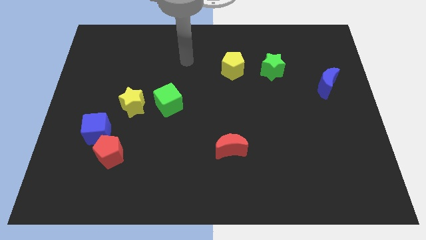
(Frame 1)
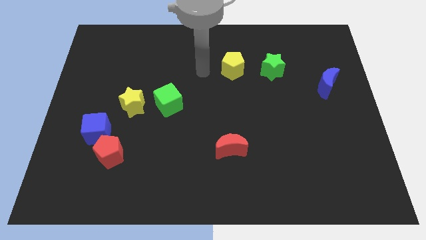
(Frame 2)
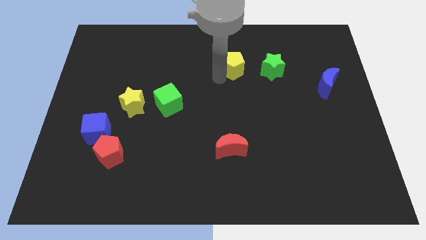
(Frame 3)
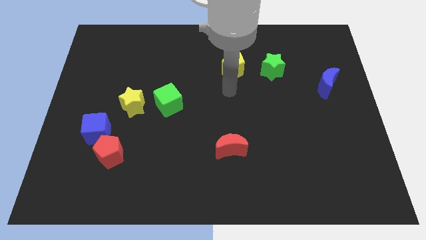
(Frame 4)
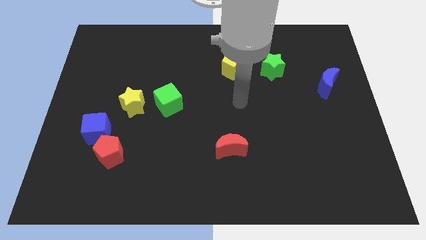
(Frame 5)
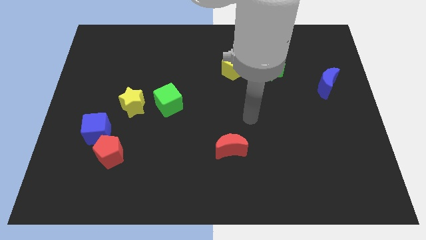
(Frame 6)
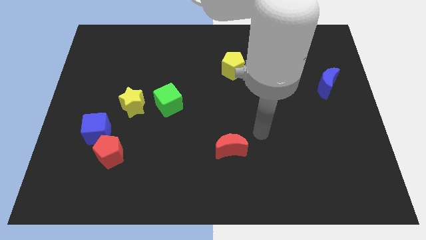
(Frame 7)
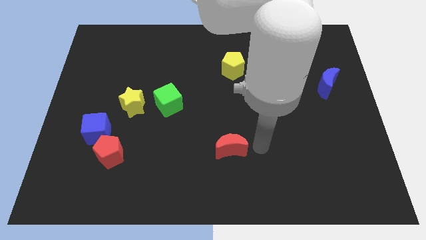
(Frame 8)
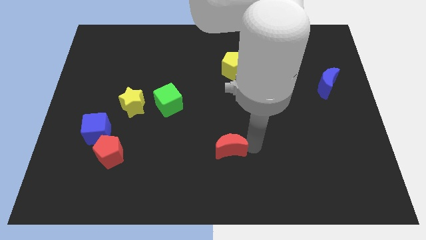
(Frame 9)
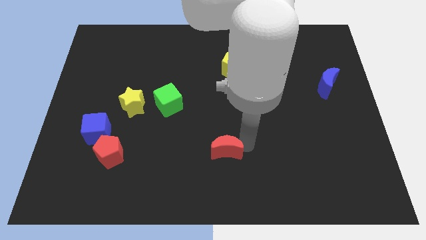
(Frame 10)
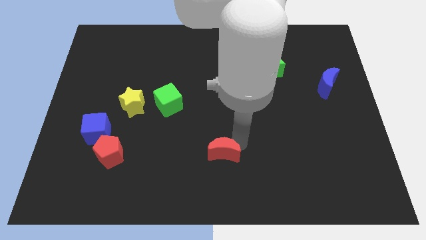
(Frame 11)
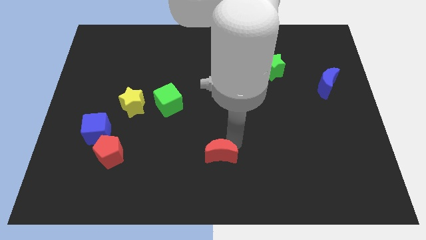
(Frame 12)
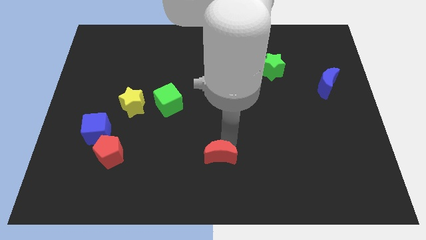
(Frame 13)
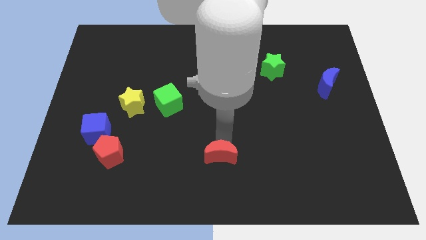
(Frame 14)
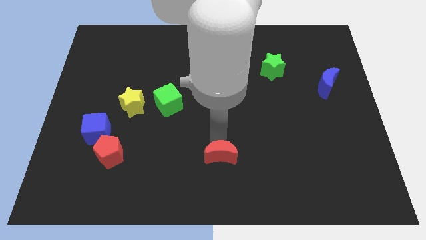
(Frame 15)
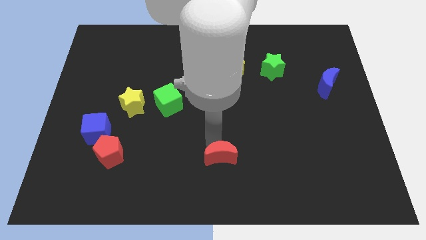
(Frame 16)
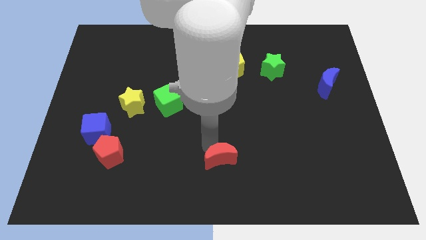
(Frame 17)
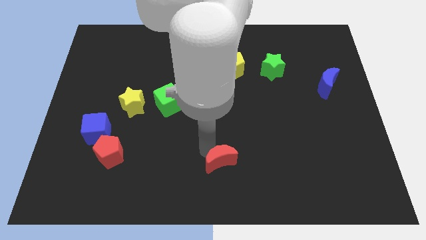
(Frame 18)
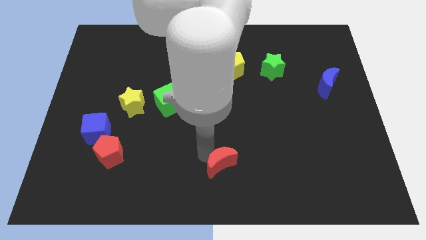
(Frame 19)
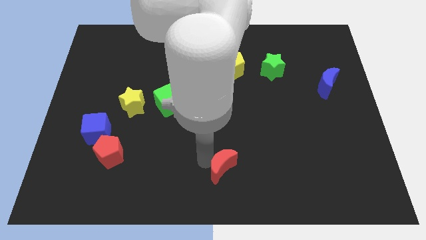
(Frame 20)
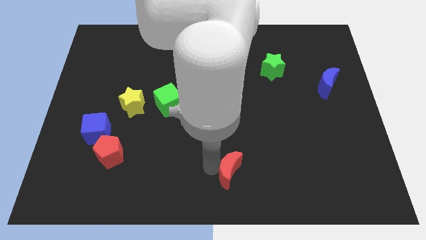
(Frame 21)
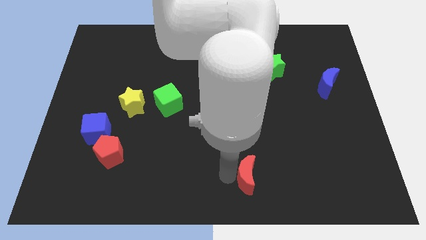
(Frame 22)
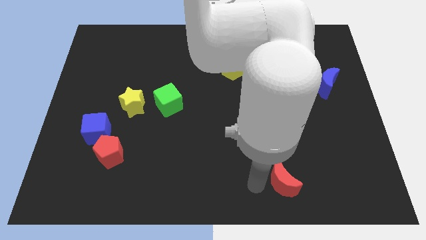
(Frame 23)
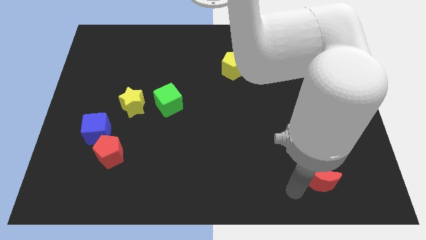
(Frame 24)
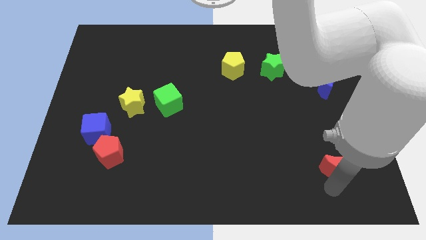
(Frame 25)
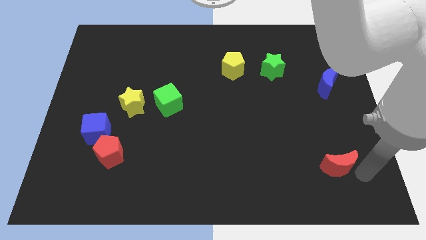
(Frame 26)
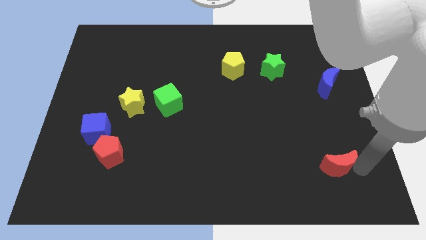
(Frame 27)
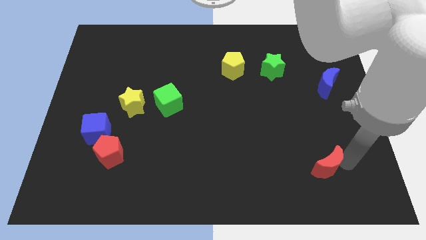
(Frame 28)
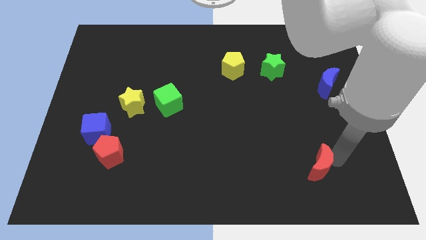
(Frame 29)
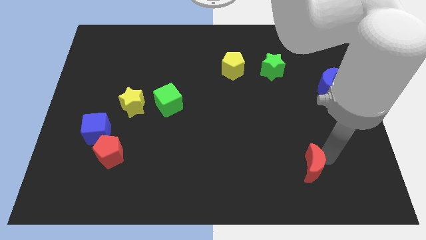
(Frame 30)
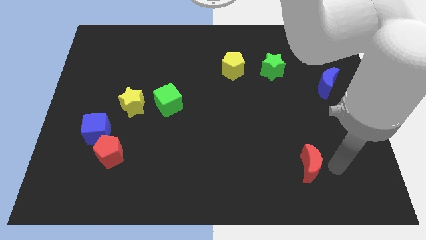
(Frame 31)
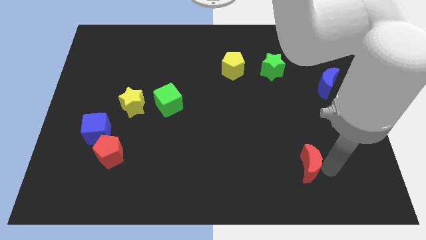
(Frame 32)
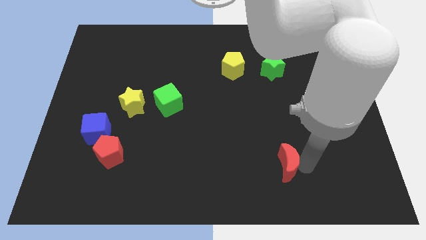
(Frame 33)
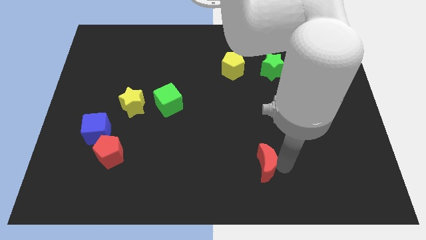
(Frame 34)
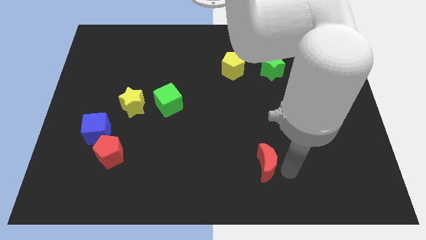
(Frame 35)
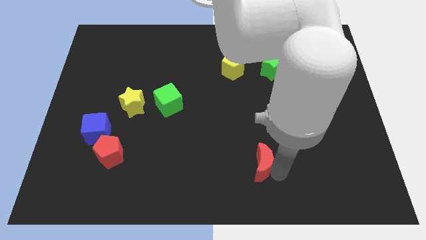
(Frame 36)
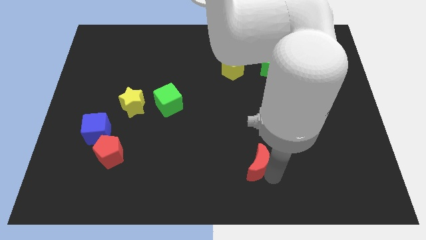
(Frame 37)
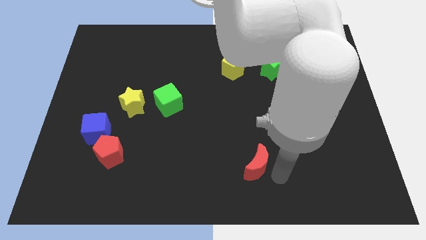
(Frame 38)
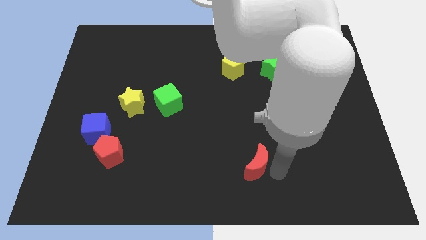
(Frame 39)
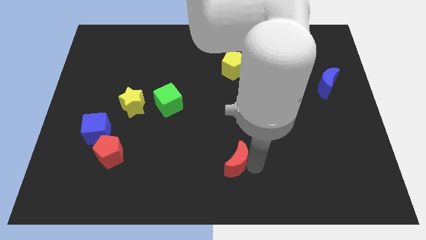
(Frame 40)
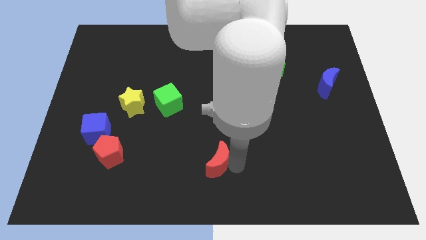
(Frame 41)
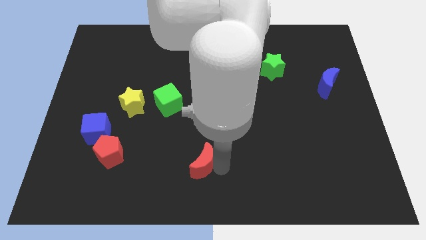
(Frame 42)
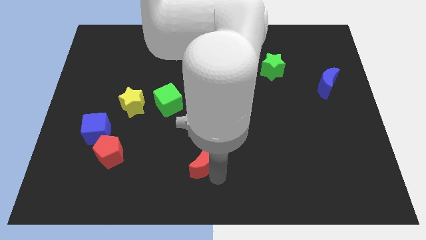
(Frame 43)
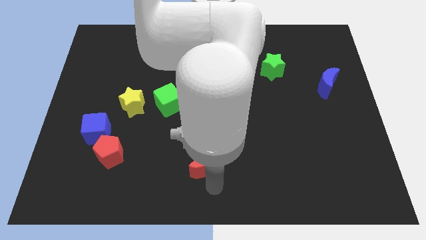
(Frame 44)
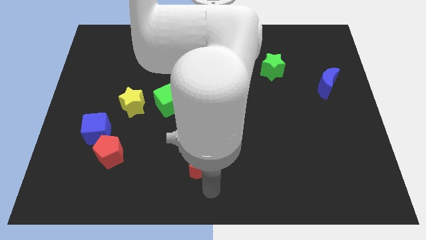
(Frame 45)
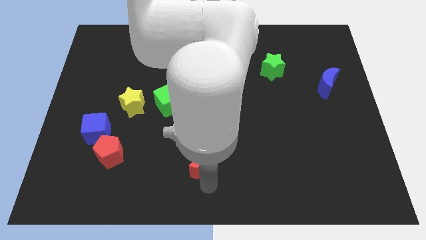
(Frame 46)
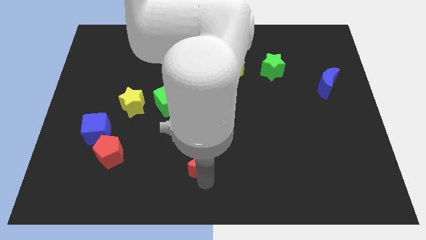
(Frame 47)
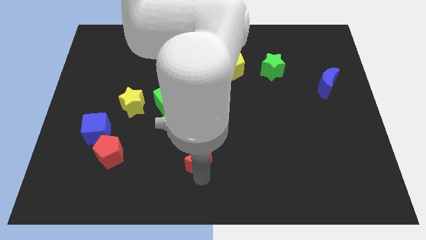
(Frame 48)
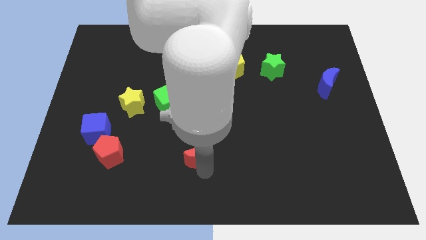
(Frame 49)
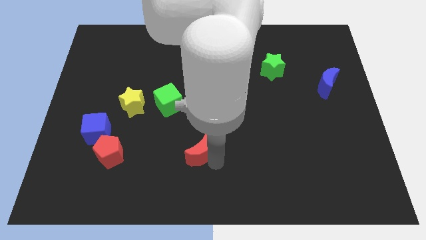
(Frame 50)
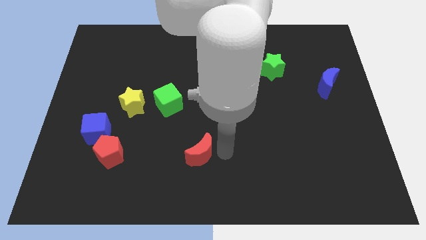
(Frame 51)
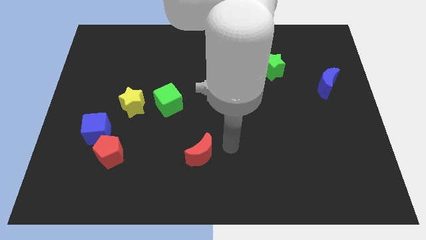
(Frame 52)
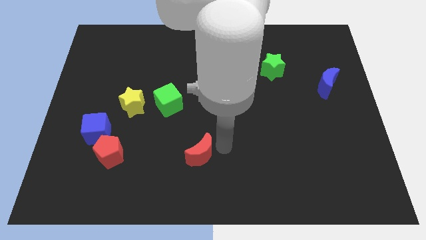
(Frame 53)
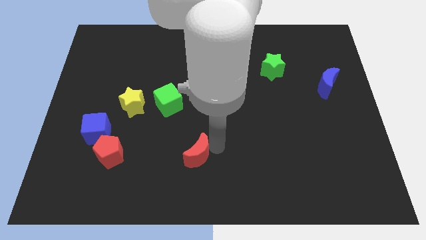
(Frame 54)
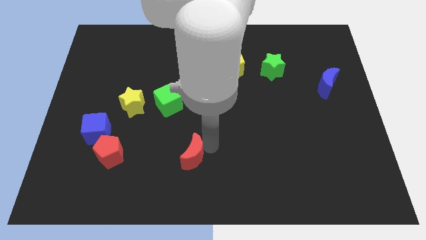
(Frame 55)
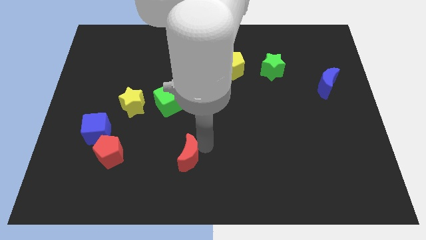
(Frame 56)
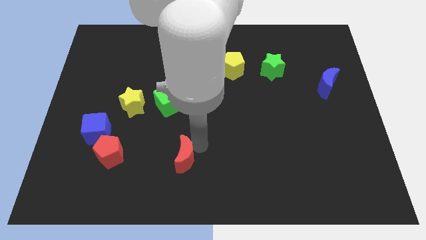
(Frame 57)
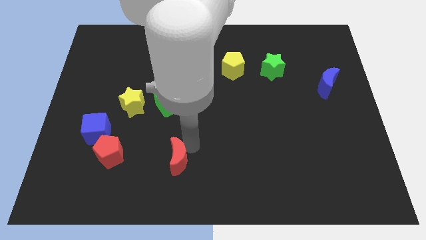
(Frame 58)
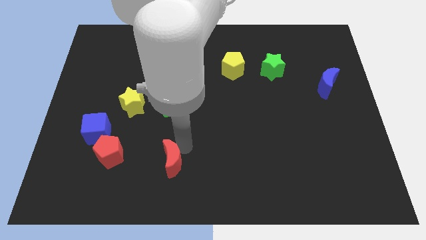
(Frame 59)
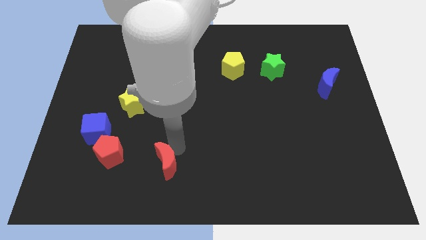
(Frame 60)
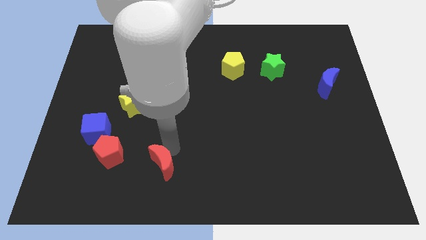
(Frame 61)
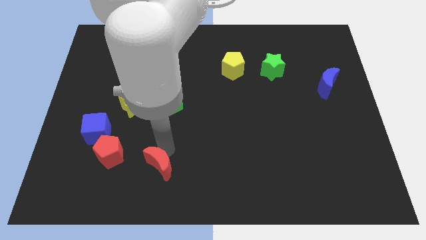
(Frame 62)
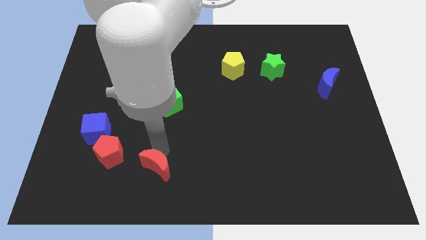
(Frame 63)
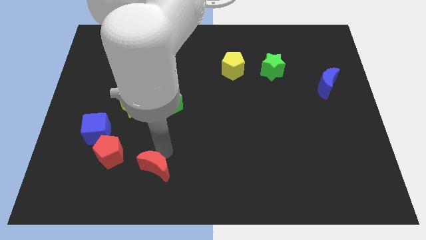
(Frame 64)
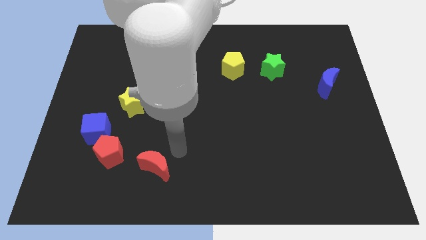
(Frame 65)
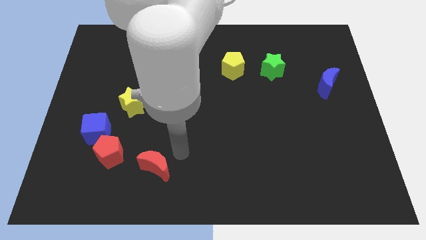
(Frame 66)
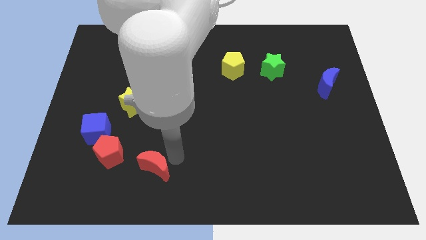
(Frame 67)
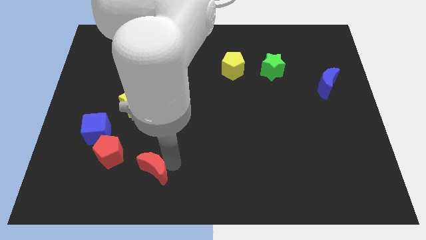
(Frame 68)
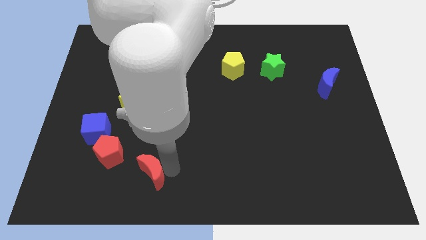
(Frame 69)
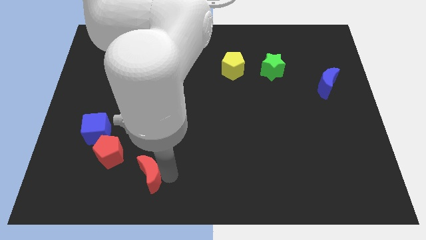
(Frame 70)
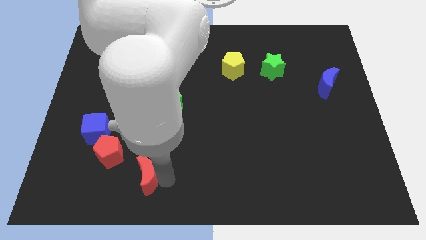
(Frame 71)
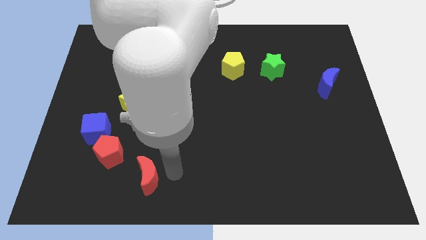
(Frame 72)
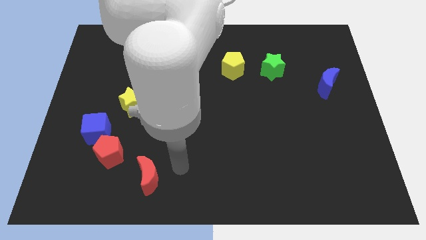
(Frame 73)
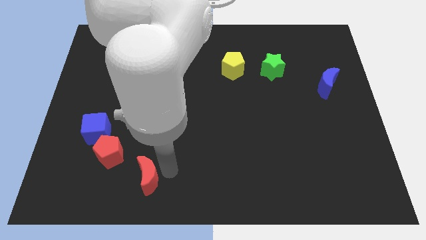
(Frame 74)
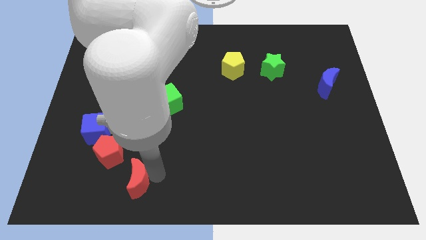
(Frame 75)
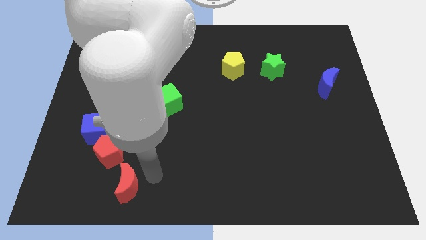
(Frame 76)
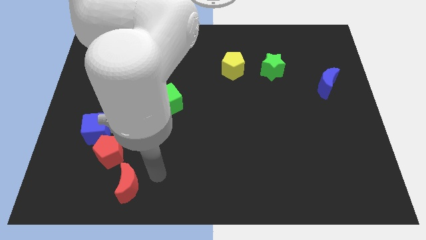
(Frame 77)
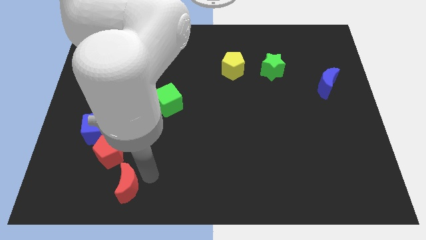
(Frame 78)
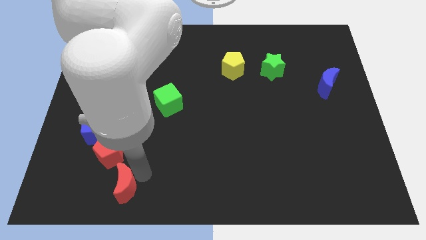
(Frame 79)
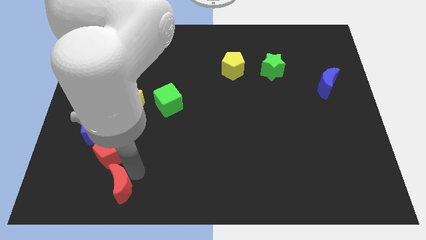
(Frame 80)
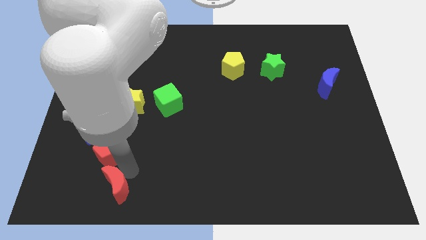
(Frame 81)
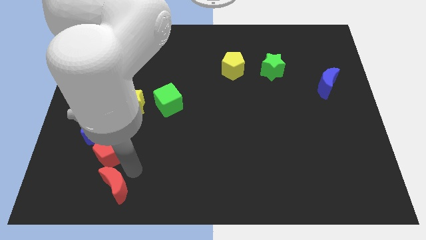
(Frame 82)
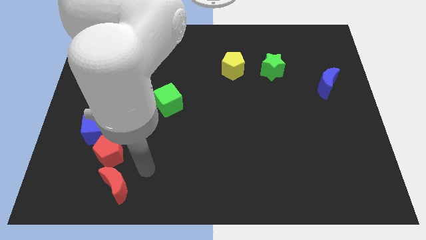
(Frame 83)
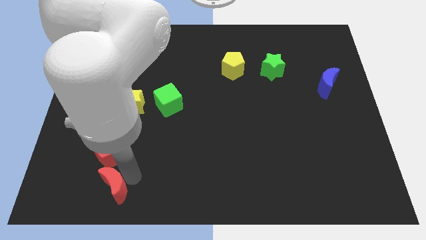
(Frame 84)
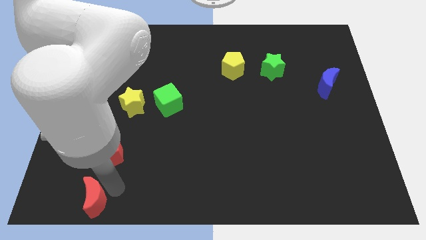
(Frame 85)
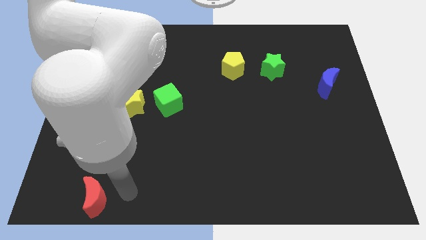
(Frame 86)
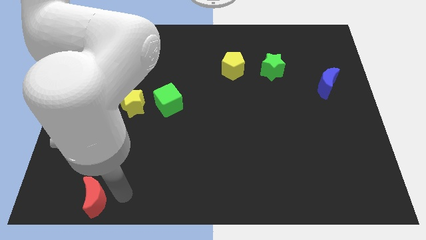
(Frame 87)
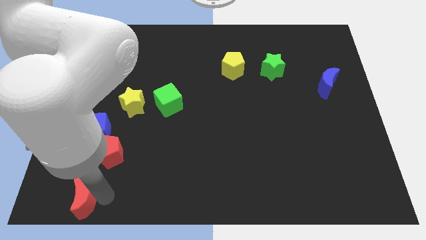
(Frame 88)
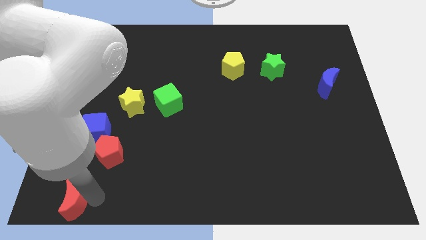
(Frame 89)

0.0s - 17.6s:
move the red moon to the bottom left
